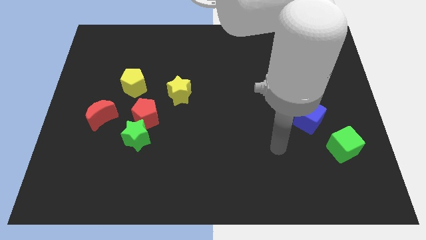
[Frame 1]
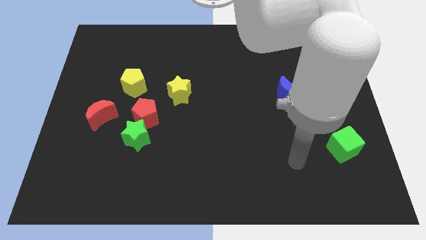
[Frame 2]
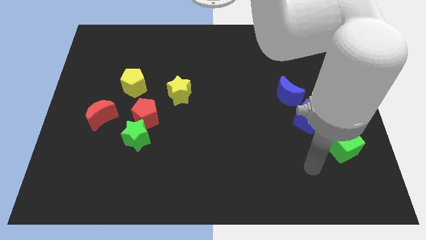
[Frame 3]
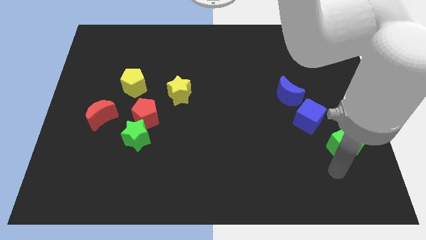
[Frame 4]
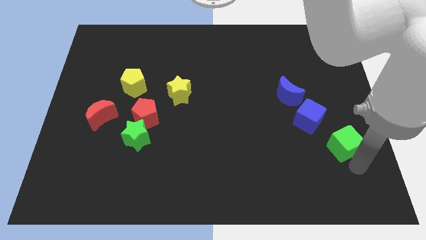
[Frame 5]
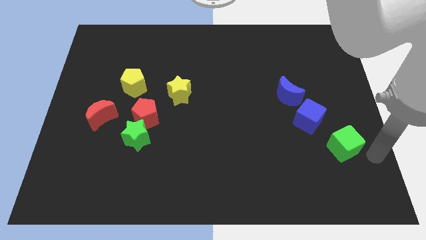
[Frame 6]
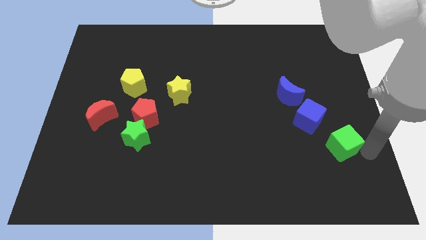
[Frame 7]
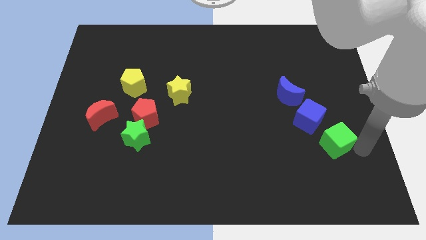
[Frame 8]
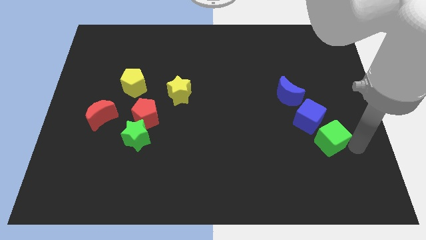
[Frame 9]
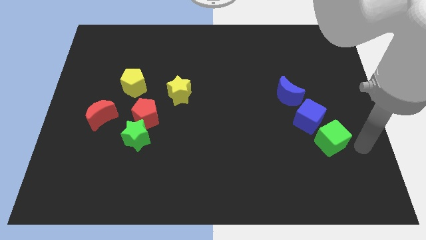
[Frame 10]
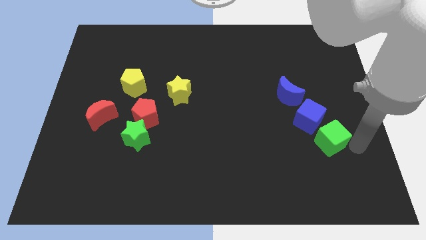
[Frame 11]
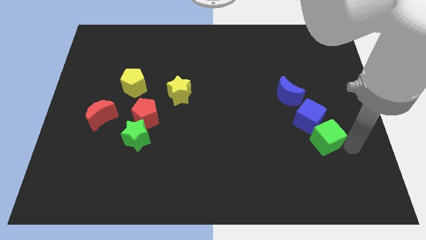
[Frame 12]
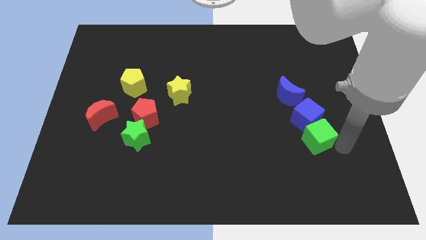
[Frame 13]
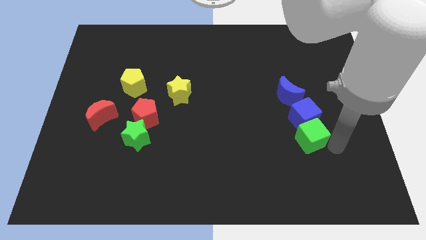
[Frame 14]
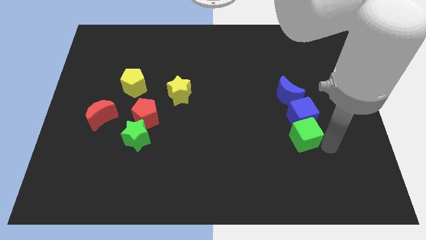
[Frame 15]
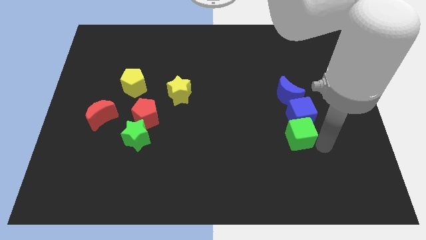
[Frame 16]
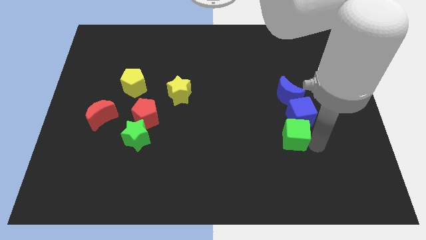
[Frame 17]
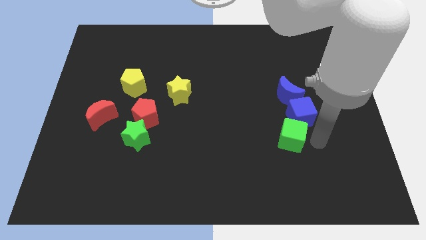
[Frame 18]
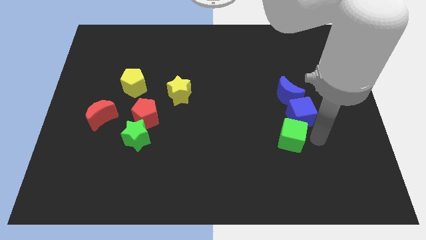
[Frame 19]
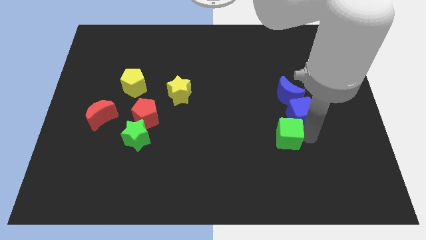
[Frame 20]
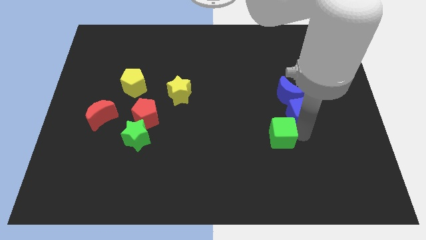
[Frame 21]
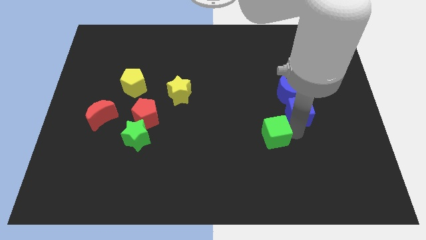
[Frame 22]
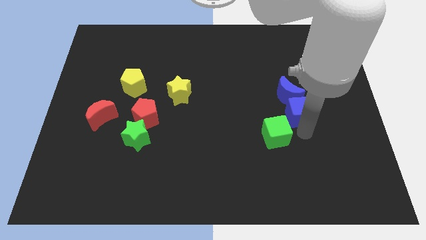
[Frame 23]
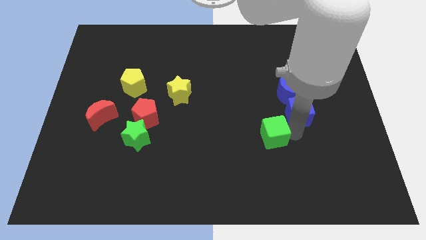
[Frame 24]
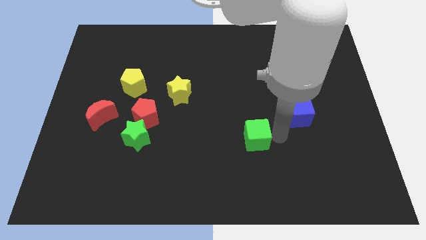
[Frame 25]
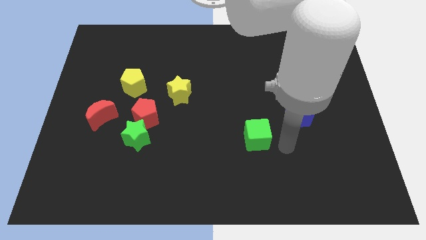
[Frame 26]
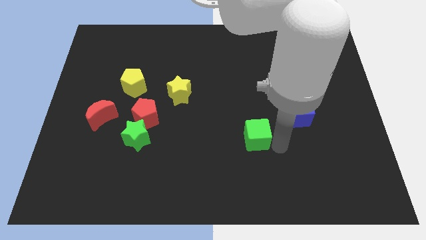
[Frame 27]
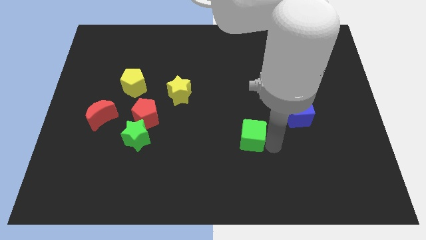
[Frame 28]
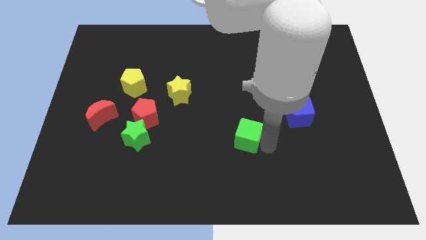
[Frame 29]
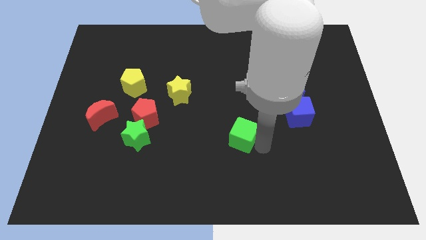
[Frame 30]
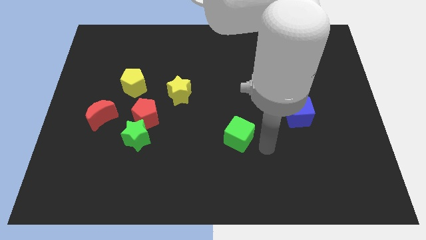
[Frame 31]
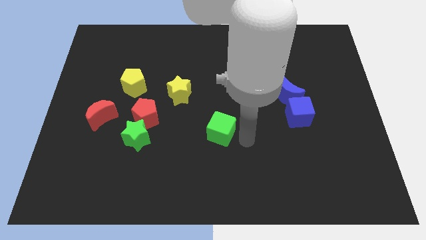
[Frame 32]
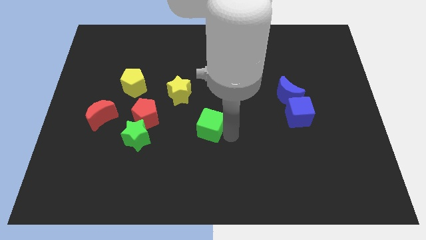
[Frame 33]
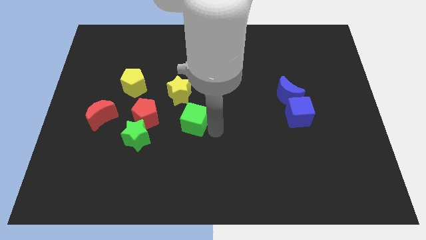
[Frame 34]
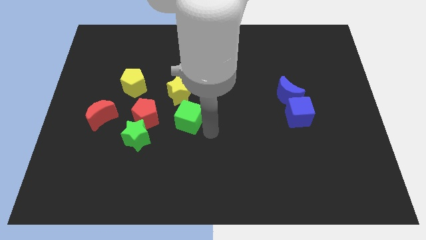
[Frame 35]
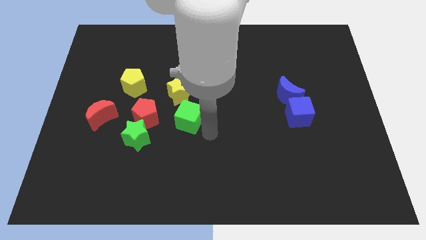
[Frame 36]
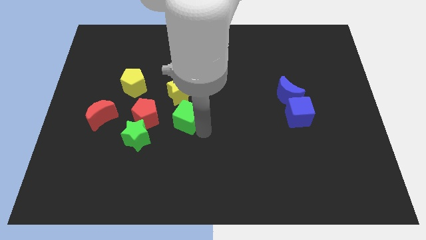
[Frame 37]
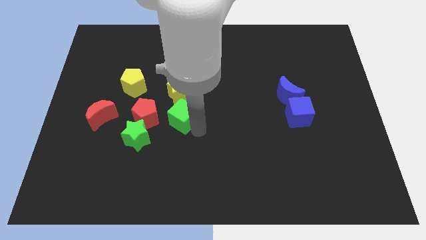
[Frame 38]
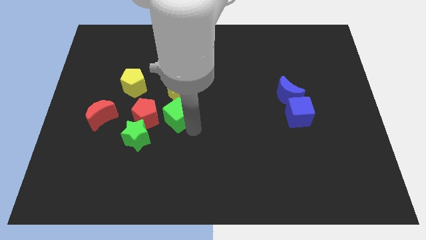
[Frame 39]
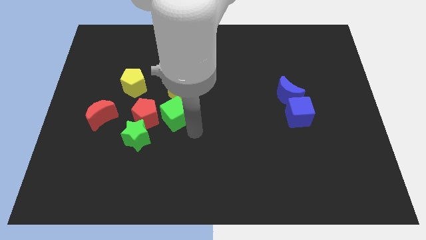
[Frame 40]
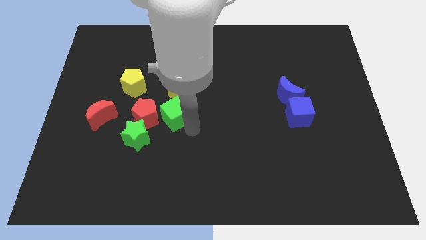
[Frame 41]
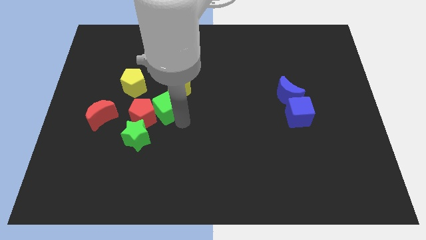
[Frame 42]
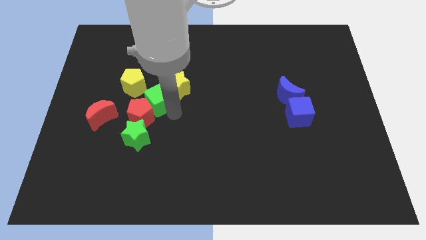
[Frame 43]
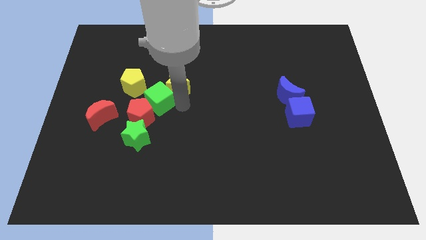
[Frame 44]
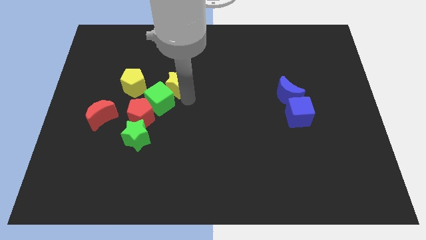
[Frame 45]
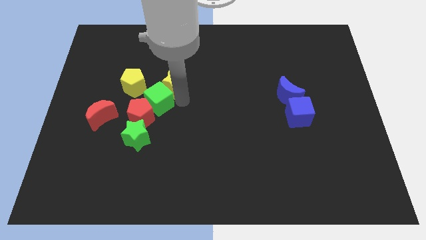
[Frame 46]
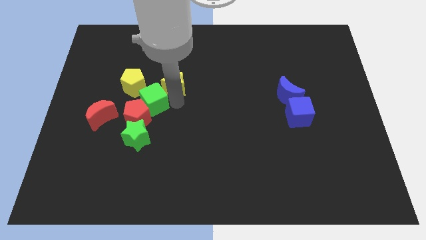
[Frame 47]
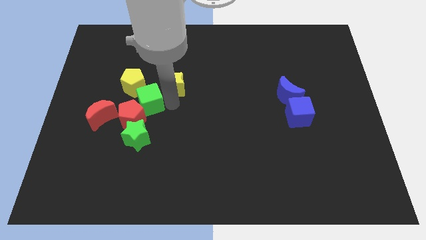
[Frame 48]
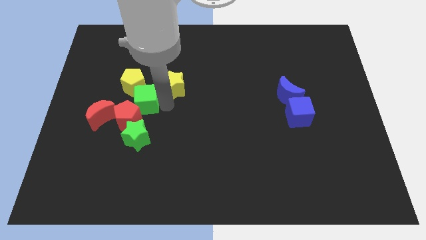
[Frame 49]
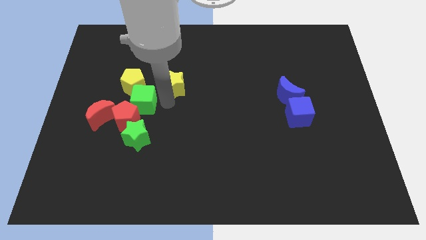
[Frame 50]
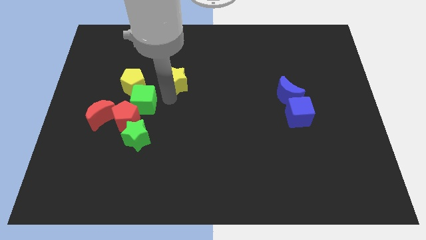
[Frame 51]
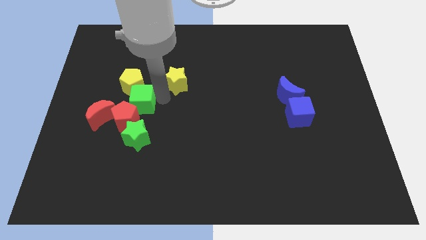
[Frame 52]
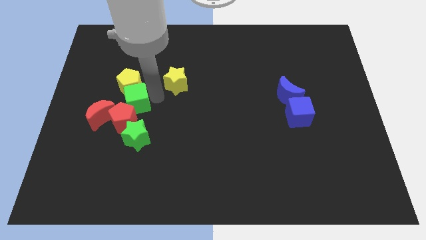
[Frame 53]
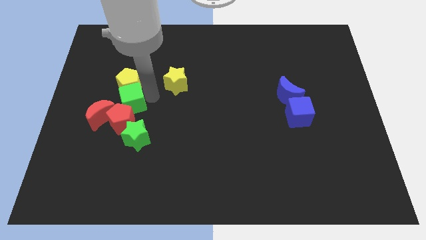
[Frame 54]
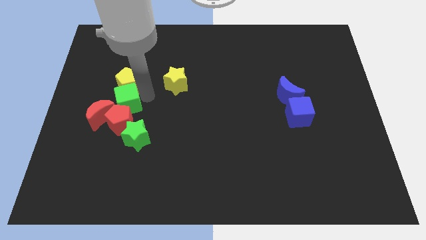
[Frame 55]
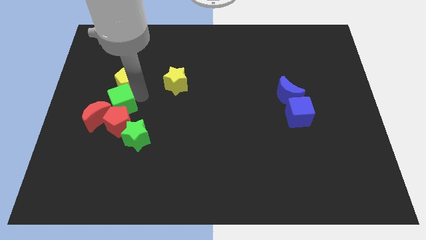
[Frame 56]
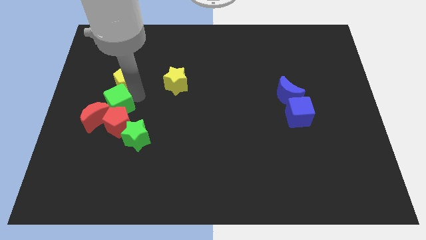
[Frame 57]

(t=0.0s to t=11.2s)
put the green cube to the red moon

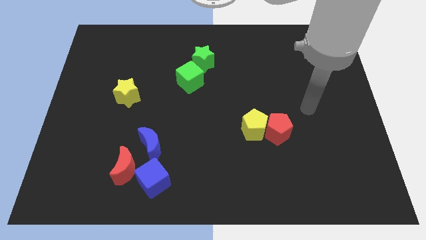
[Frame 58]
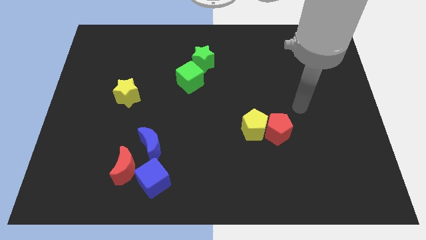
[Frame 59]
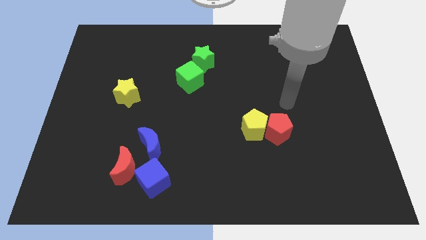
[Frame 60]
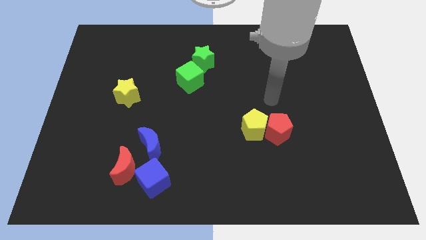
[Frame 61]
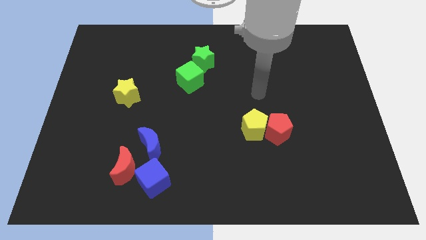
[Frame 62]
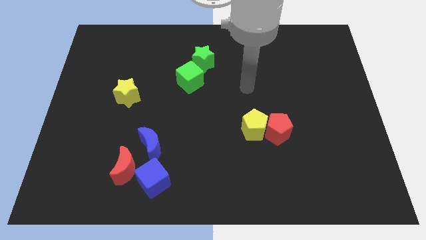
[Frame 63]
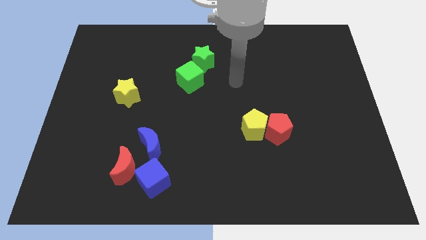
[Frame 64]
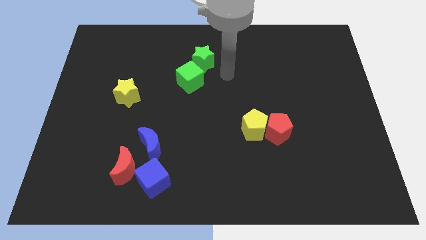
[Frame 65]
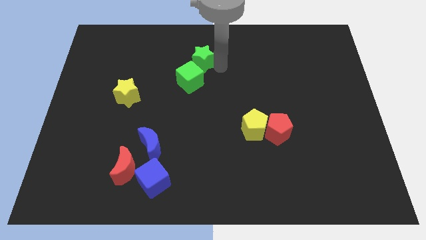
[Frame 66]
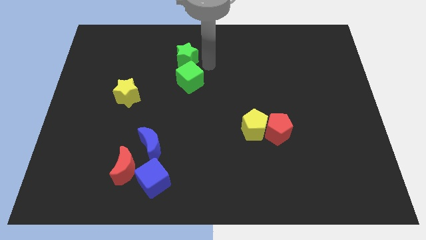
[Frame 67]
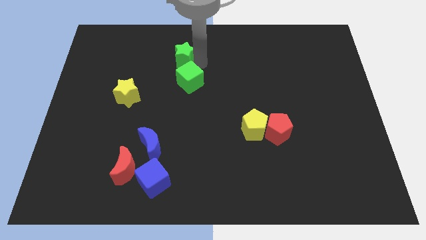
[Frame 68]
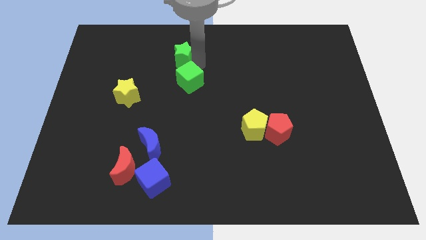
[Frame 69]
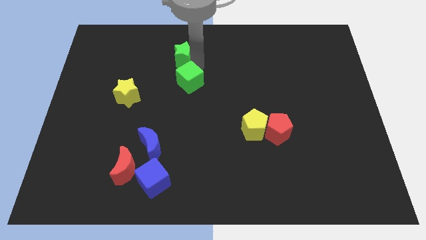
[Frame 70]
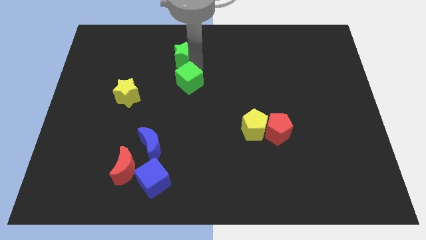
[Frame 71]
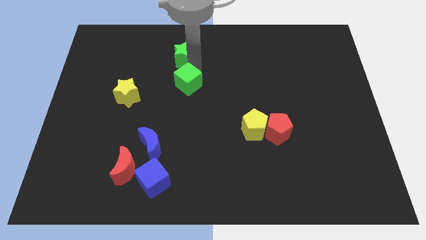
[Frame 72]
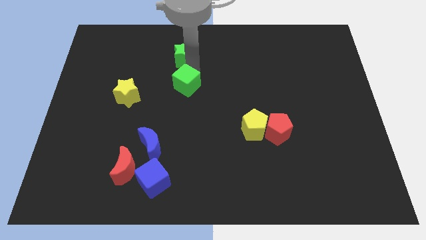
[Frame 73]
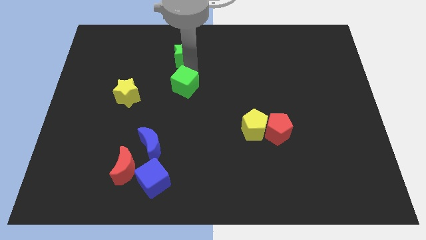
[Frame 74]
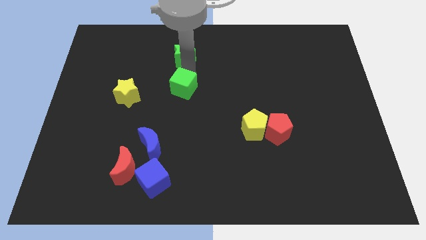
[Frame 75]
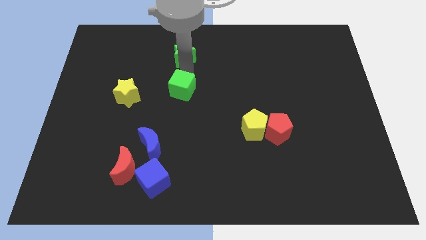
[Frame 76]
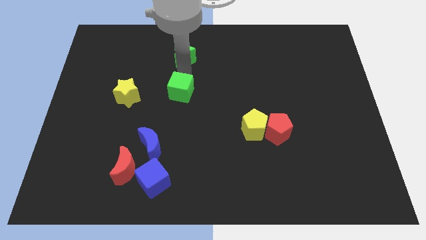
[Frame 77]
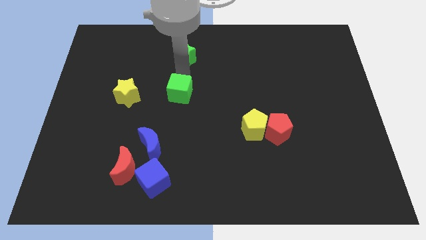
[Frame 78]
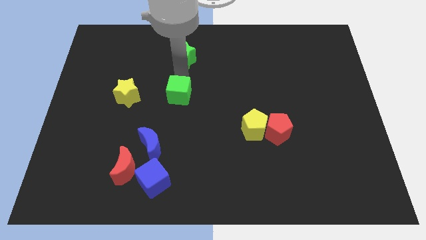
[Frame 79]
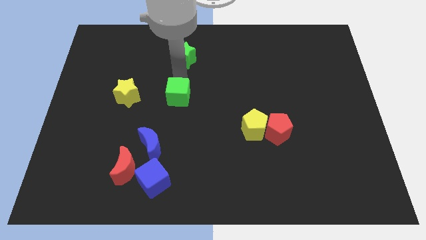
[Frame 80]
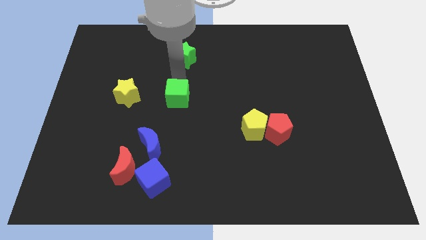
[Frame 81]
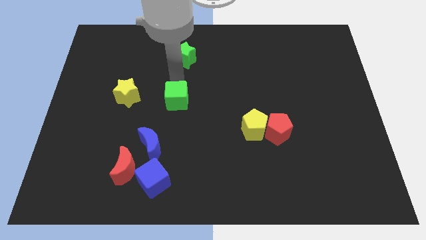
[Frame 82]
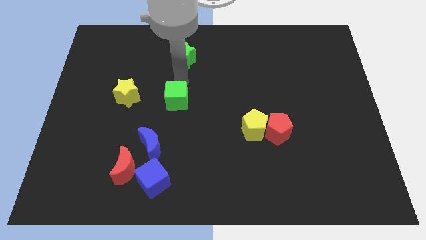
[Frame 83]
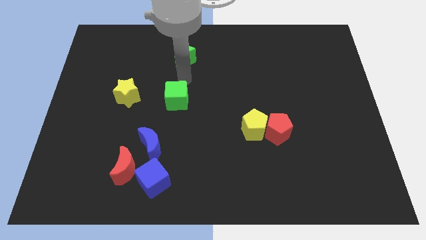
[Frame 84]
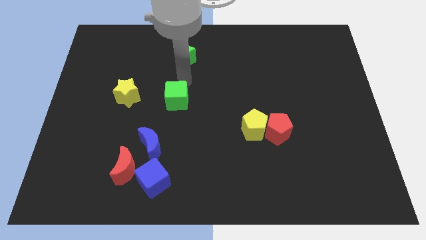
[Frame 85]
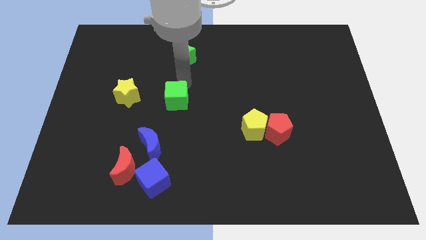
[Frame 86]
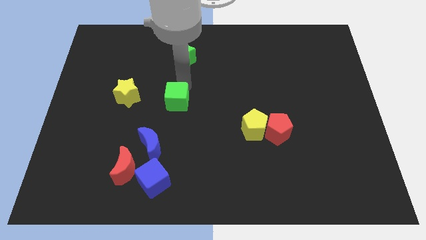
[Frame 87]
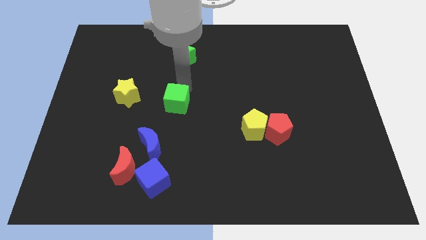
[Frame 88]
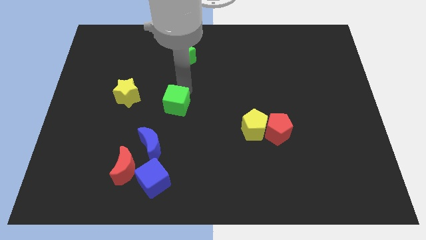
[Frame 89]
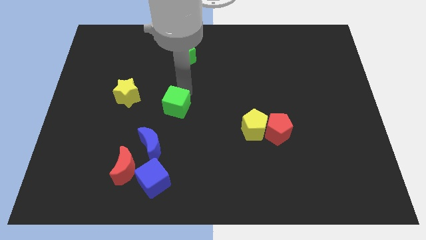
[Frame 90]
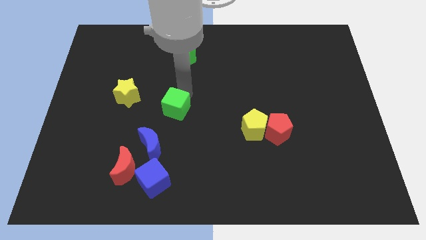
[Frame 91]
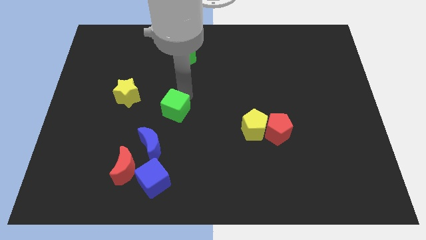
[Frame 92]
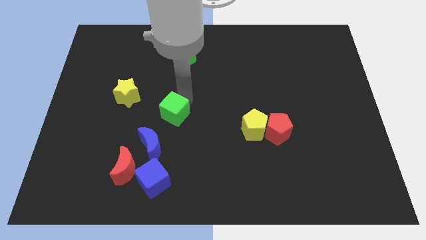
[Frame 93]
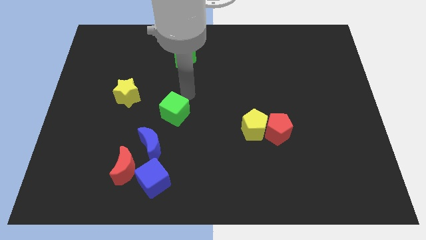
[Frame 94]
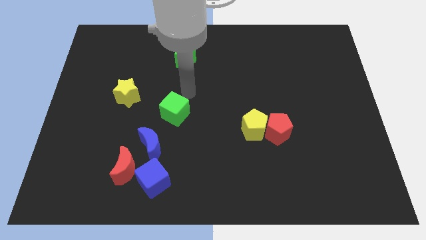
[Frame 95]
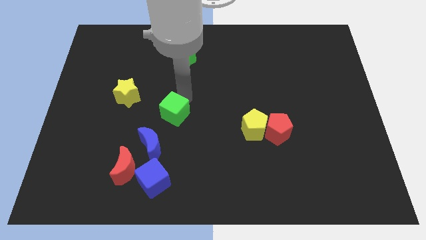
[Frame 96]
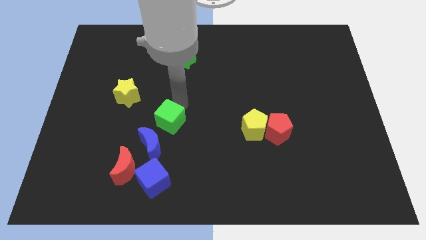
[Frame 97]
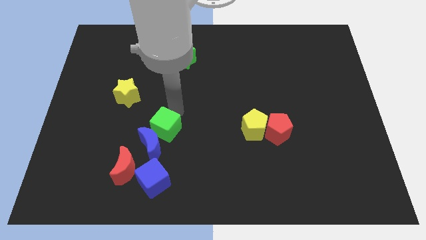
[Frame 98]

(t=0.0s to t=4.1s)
move the green cube close to the blue moon
